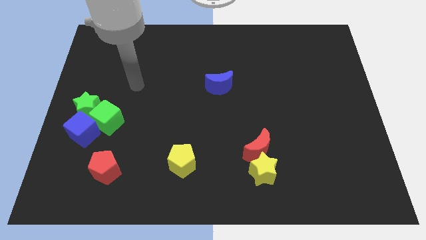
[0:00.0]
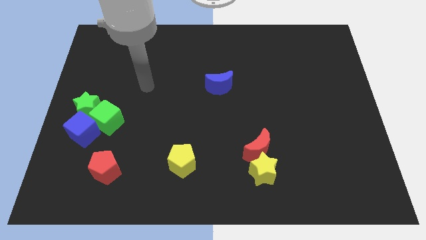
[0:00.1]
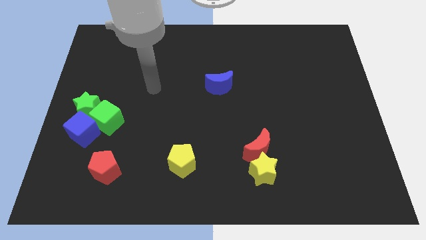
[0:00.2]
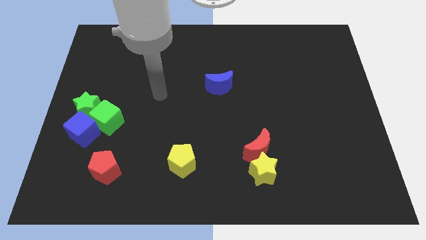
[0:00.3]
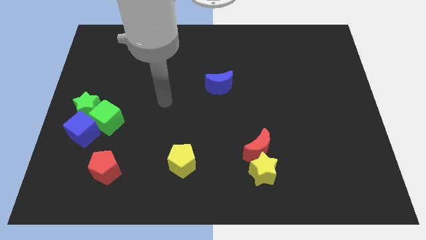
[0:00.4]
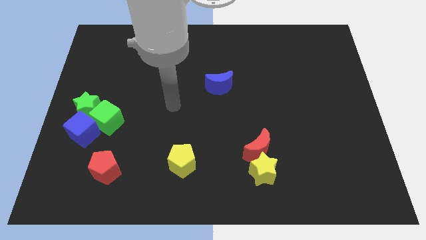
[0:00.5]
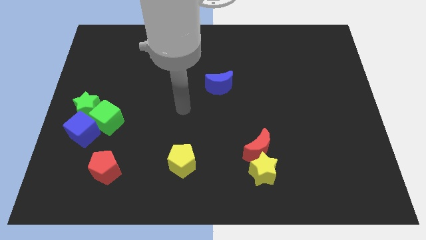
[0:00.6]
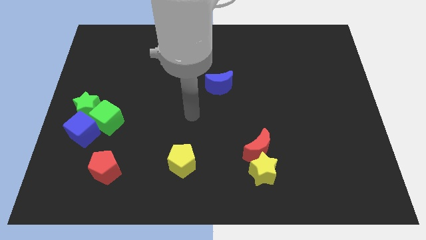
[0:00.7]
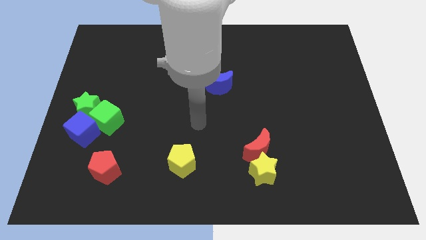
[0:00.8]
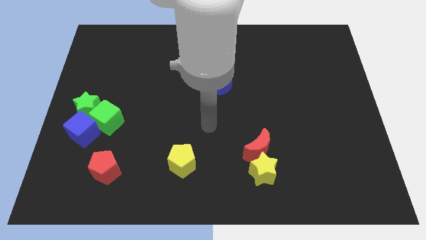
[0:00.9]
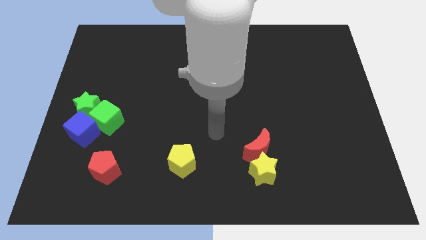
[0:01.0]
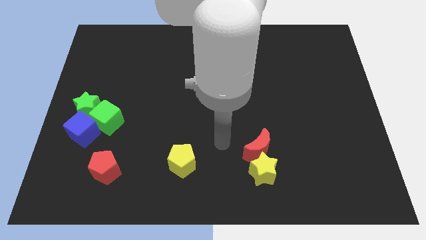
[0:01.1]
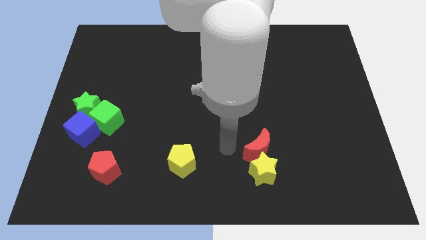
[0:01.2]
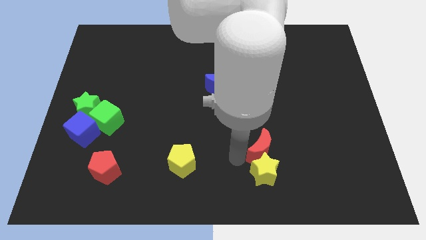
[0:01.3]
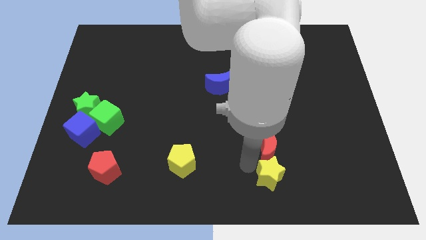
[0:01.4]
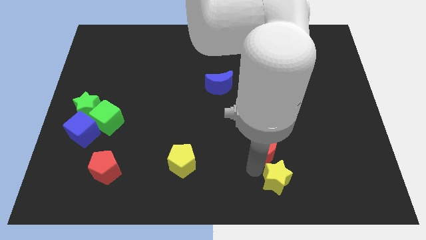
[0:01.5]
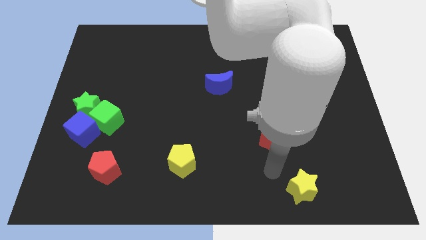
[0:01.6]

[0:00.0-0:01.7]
move the red moon away from the yellow star

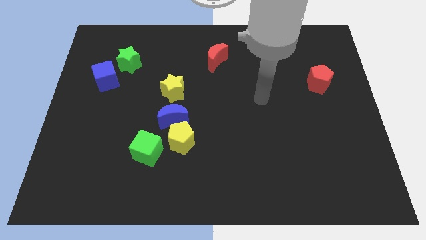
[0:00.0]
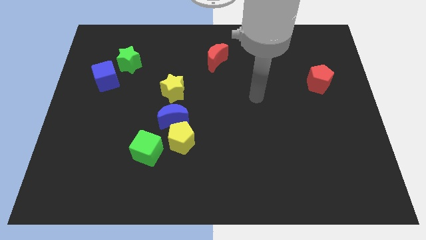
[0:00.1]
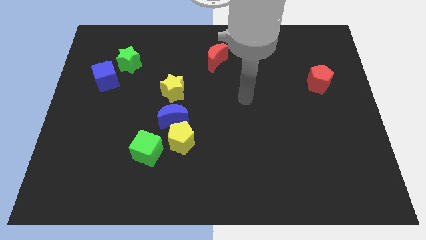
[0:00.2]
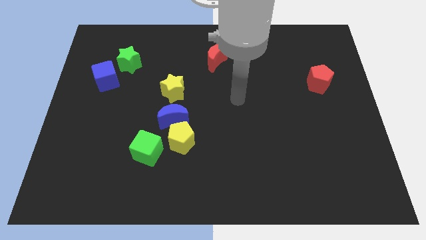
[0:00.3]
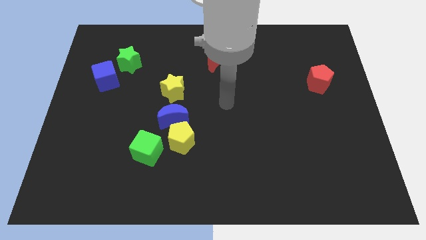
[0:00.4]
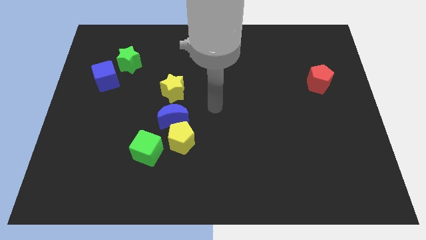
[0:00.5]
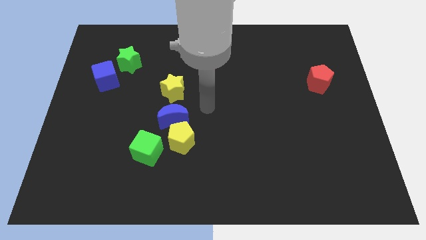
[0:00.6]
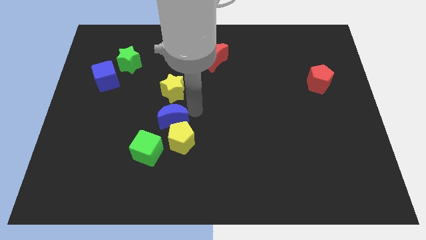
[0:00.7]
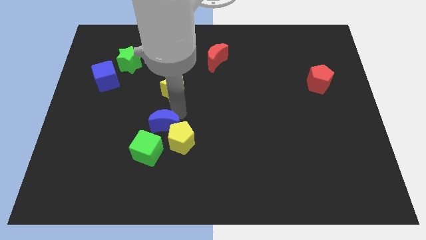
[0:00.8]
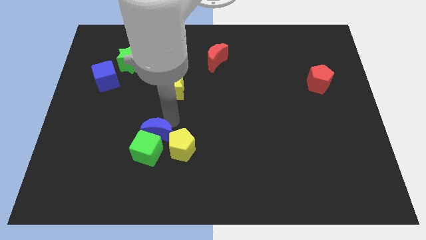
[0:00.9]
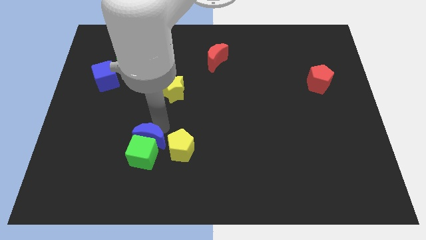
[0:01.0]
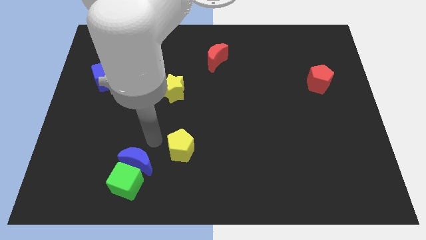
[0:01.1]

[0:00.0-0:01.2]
pull the yellow pentagon apart from the blue moon and green cube

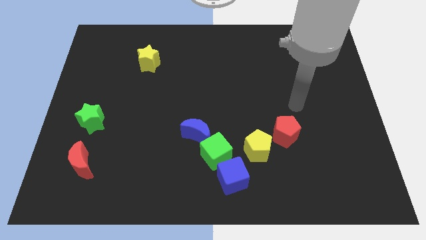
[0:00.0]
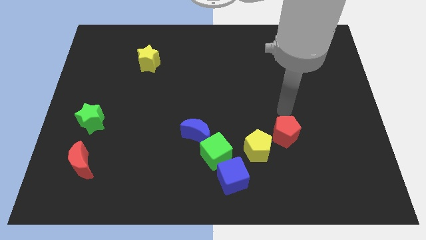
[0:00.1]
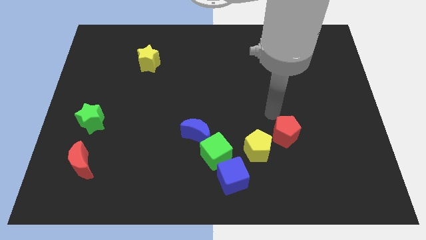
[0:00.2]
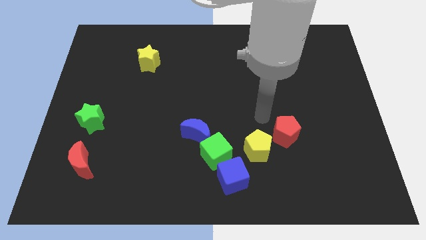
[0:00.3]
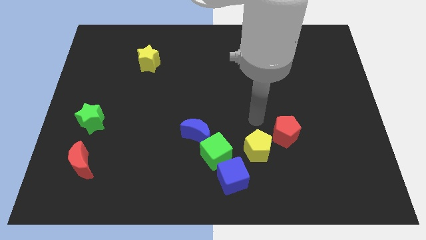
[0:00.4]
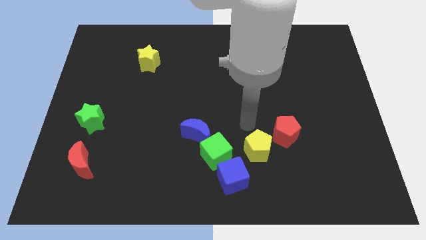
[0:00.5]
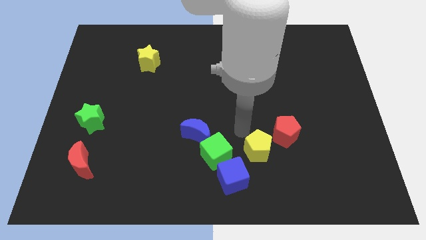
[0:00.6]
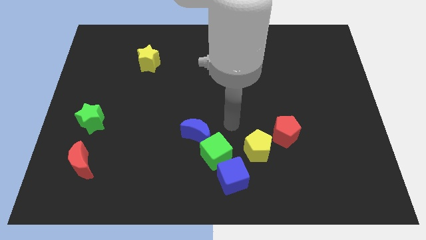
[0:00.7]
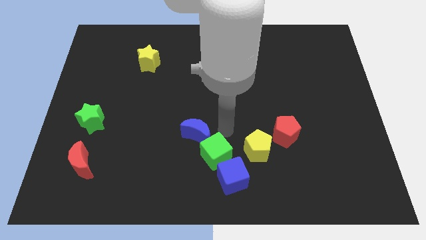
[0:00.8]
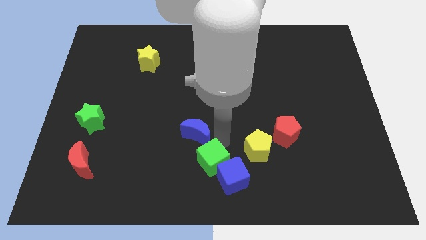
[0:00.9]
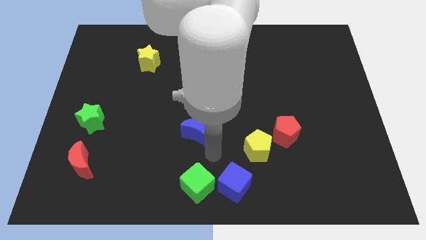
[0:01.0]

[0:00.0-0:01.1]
move the blue moon away from the green cube

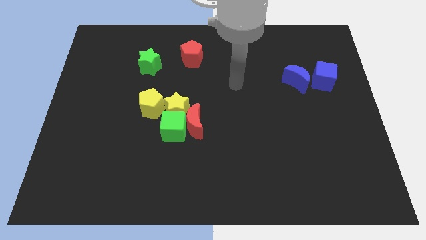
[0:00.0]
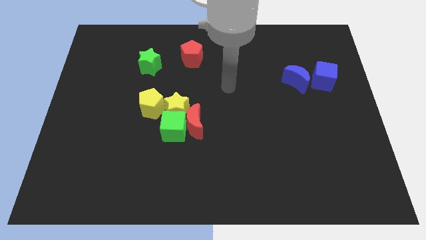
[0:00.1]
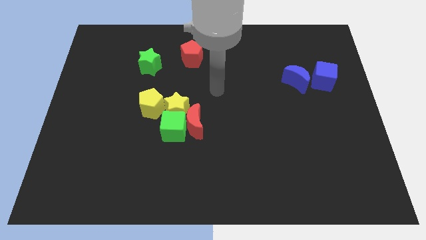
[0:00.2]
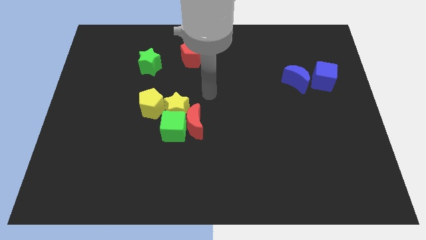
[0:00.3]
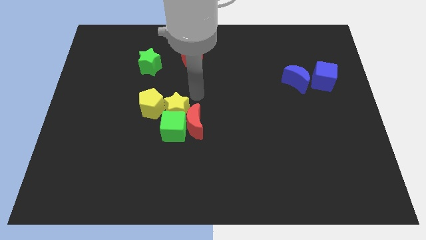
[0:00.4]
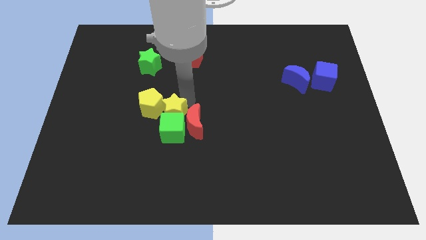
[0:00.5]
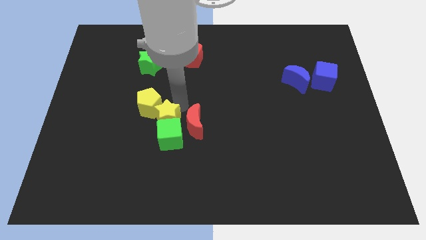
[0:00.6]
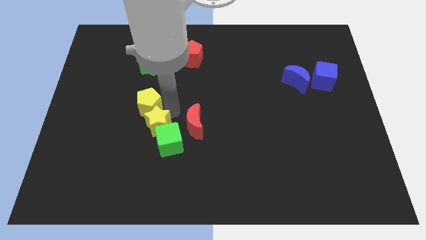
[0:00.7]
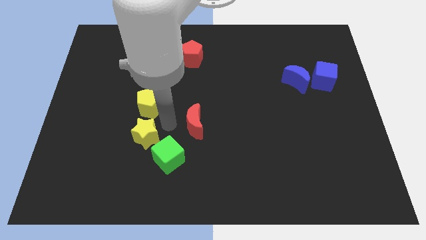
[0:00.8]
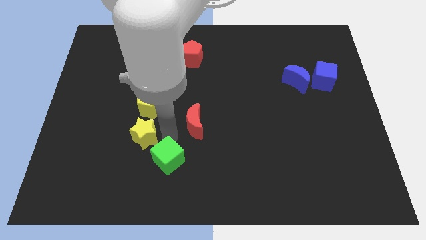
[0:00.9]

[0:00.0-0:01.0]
move the red moon away from the green cube and yellow star

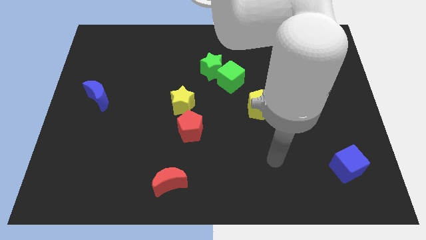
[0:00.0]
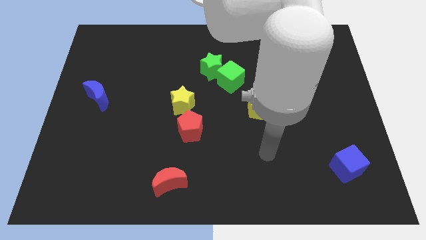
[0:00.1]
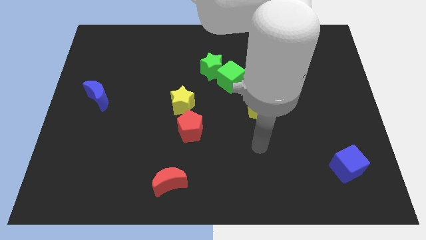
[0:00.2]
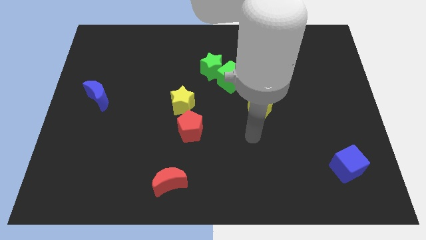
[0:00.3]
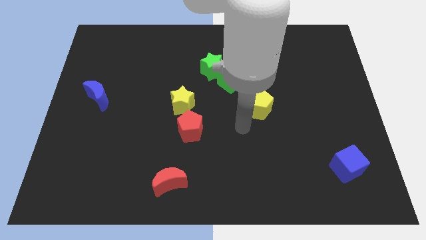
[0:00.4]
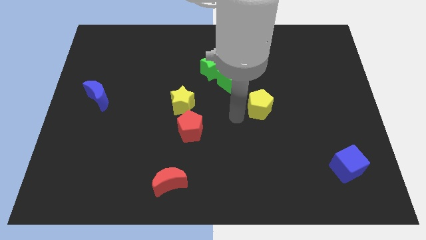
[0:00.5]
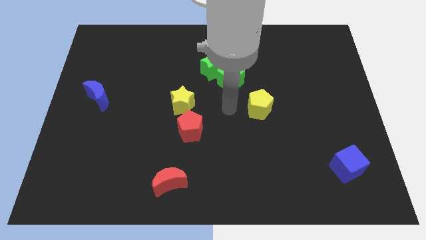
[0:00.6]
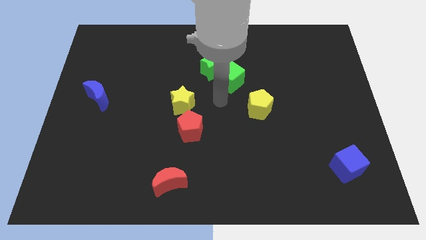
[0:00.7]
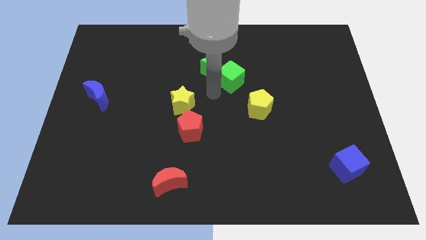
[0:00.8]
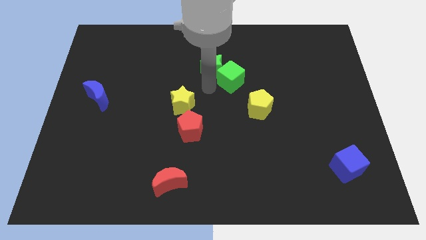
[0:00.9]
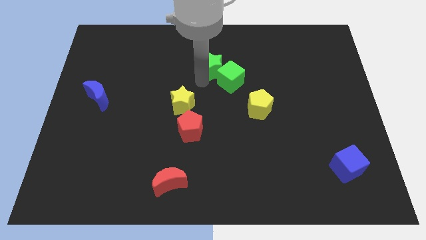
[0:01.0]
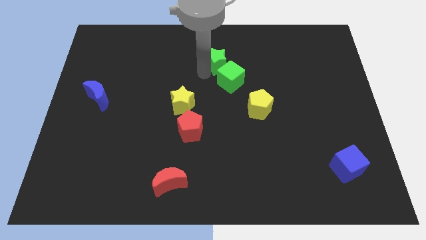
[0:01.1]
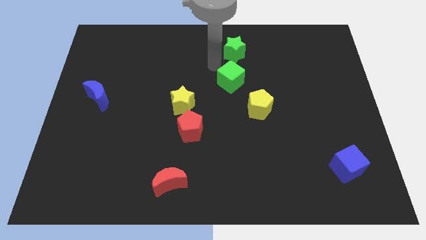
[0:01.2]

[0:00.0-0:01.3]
pull the green cube apart from the green star

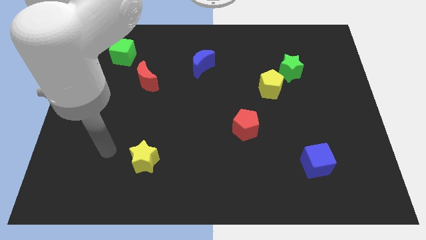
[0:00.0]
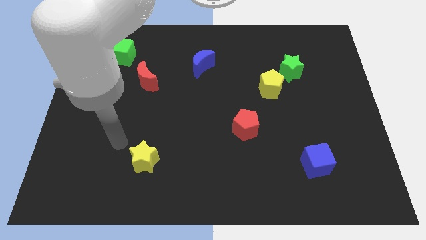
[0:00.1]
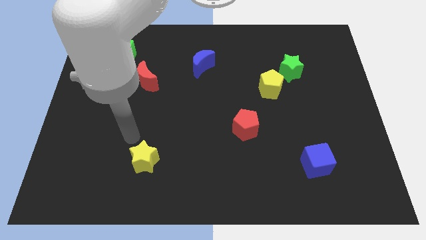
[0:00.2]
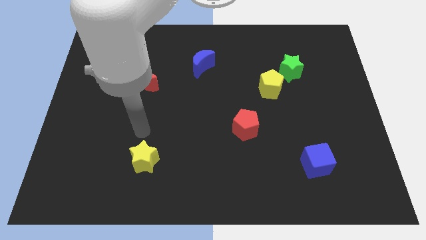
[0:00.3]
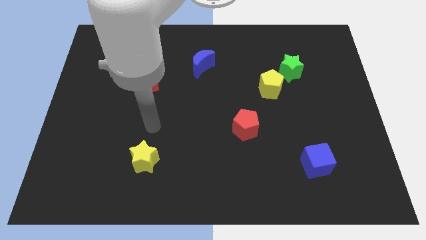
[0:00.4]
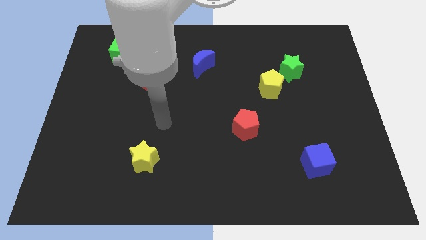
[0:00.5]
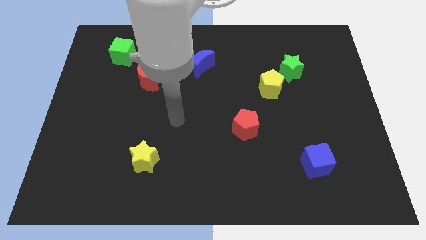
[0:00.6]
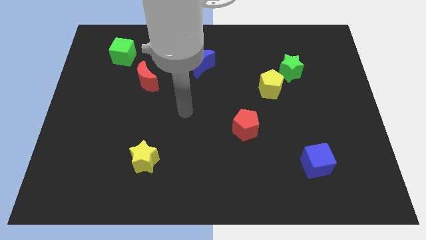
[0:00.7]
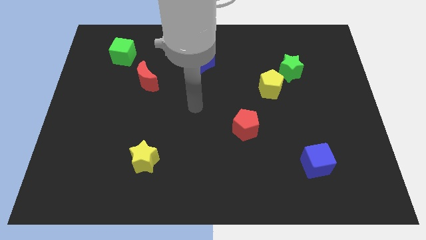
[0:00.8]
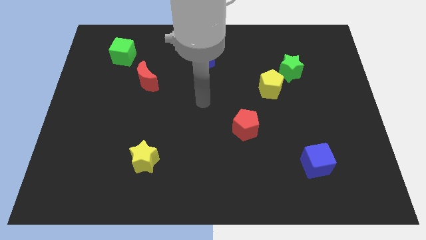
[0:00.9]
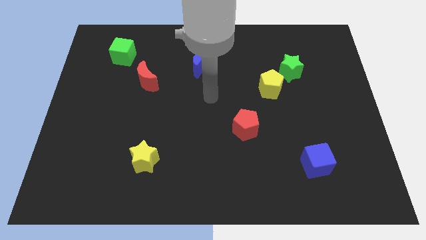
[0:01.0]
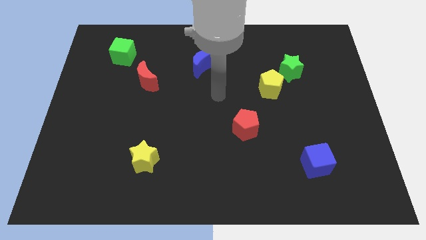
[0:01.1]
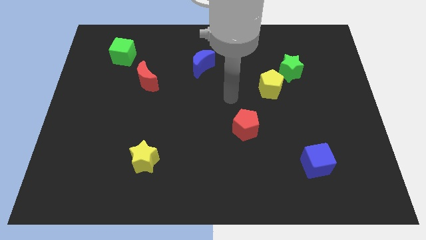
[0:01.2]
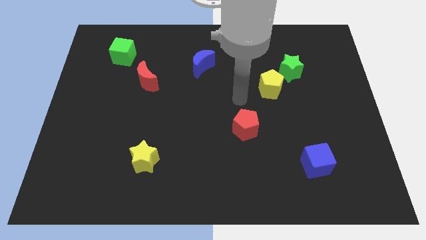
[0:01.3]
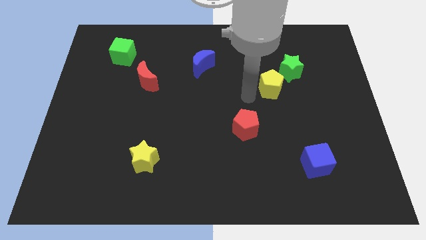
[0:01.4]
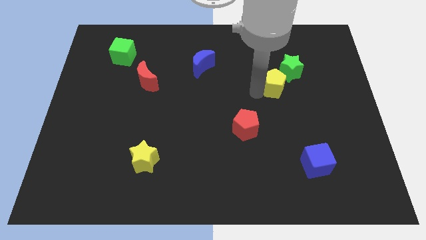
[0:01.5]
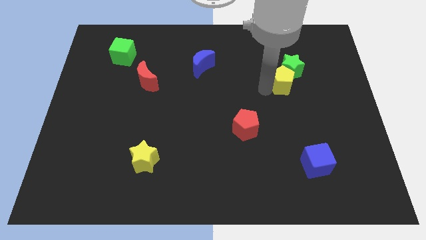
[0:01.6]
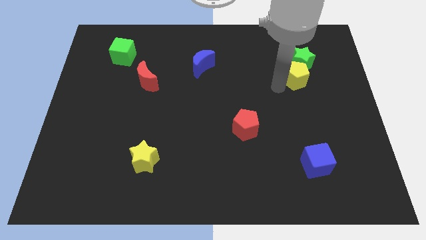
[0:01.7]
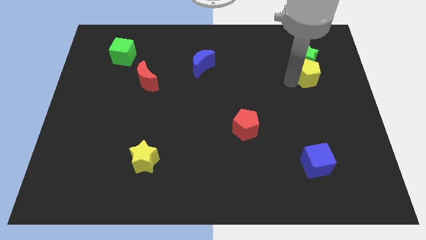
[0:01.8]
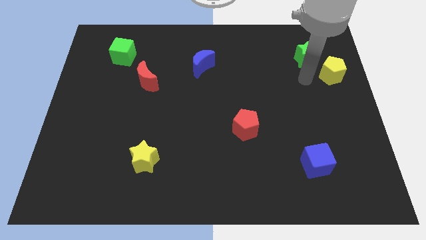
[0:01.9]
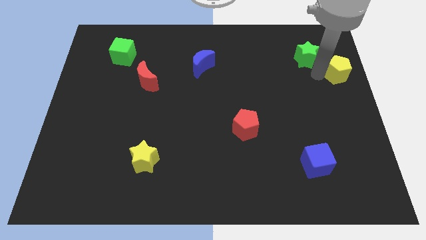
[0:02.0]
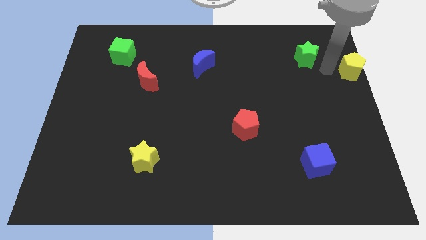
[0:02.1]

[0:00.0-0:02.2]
pull the green star apart from the yellow pentagon

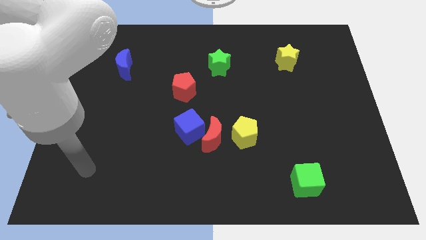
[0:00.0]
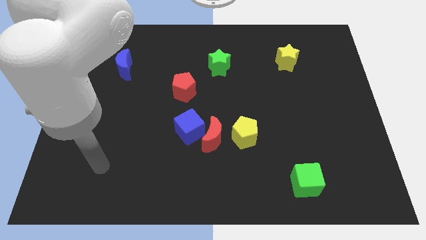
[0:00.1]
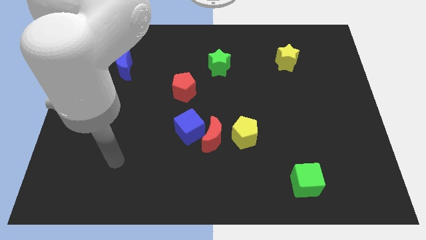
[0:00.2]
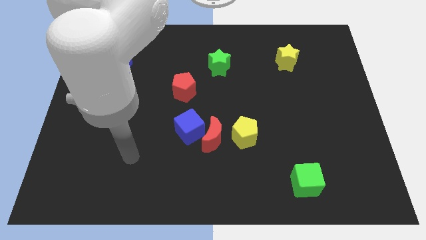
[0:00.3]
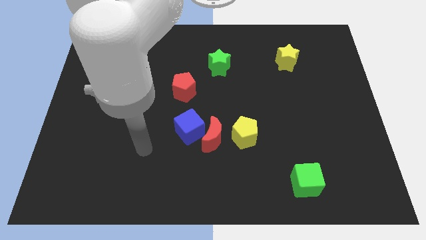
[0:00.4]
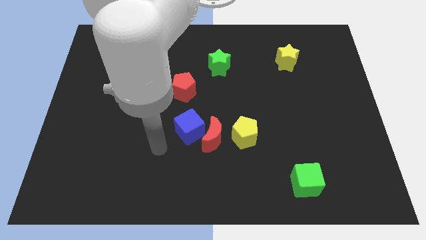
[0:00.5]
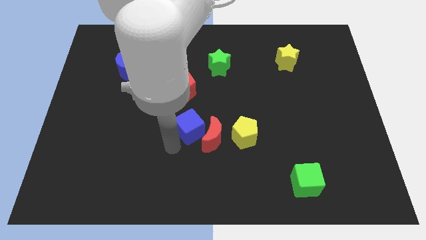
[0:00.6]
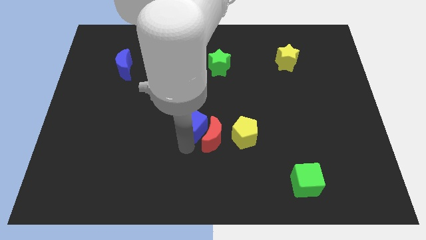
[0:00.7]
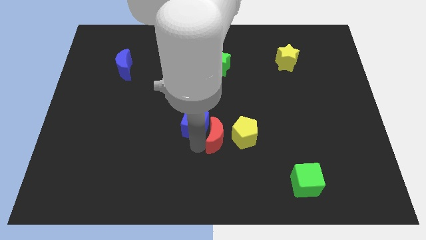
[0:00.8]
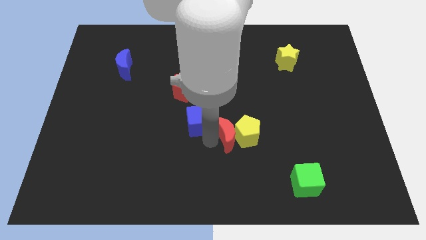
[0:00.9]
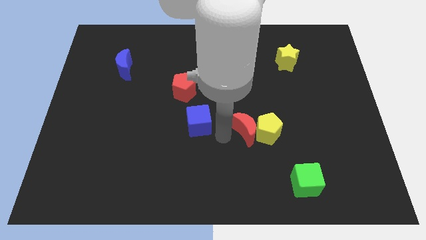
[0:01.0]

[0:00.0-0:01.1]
pull the blue cube apart from the red moon
